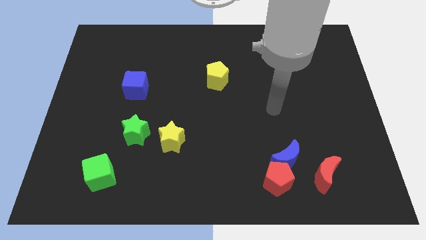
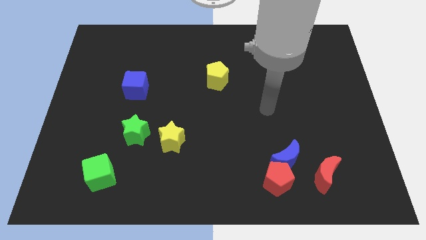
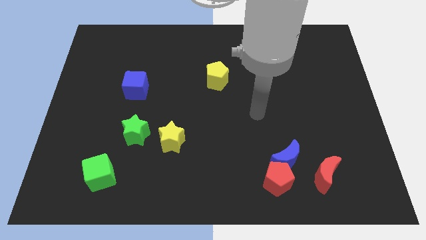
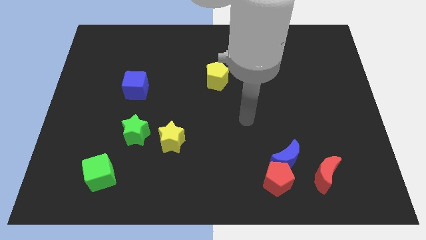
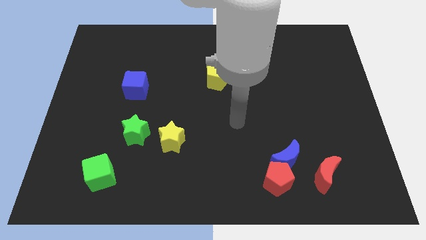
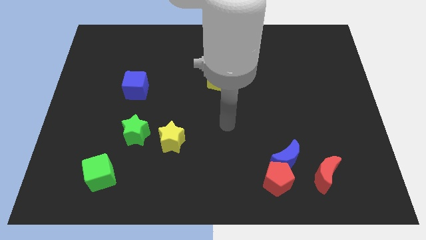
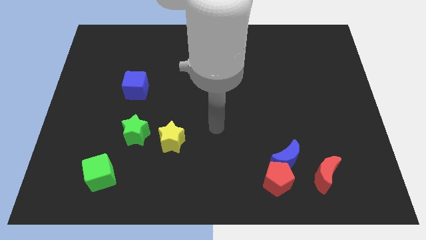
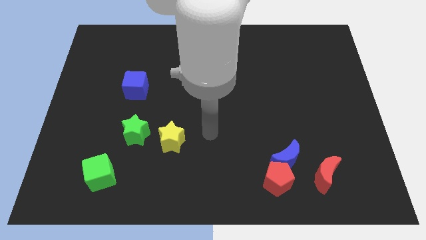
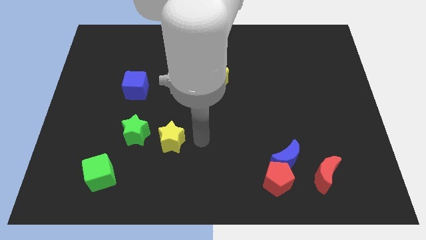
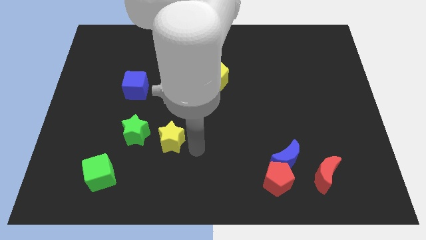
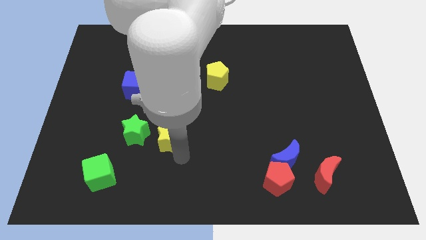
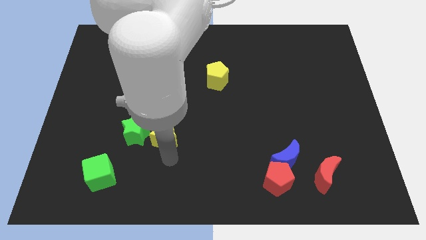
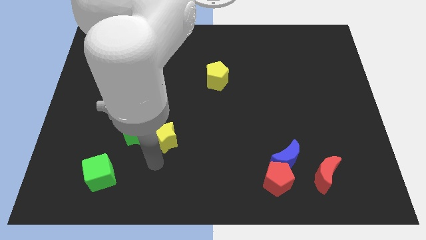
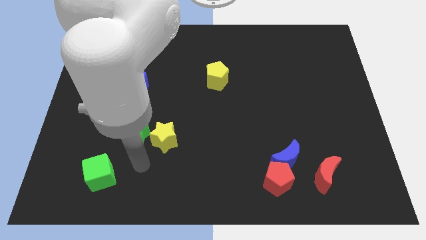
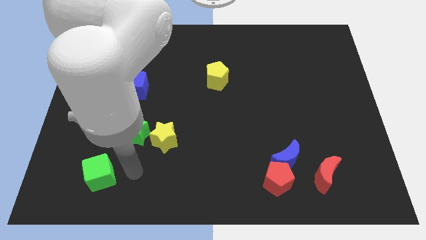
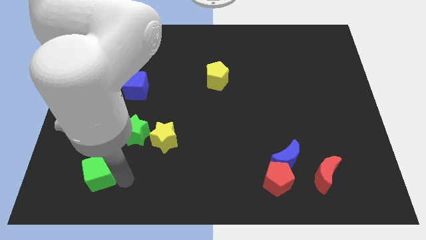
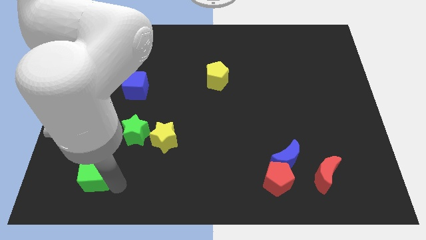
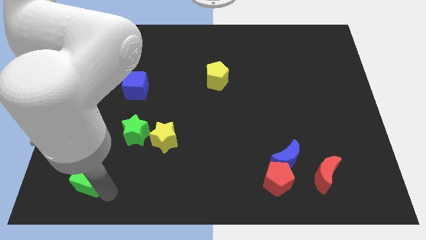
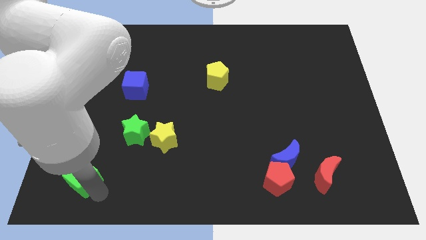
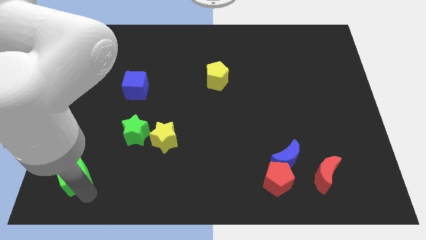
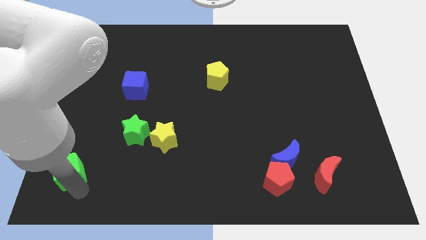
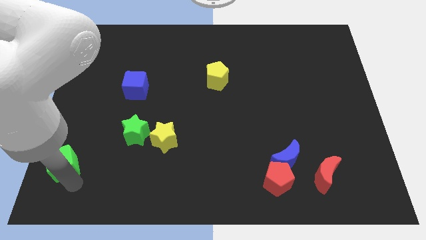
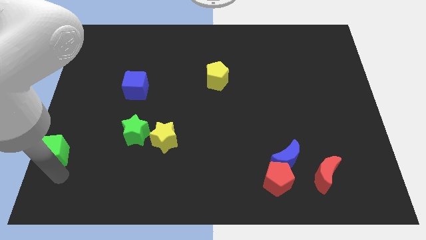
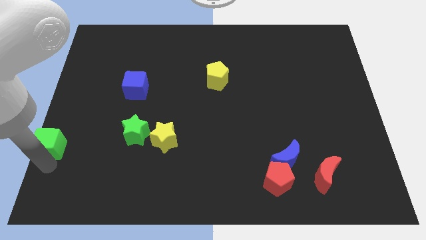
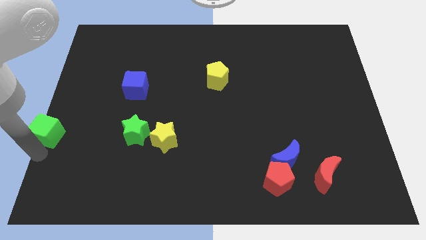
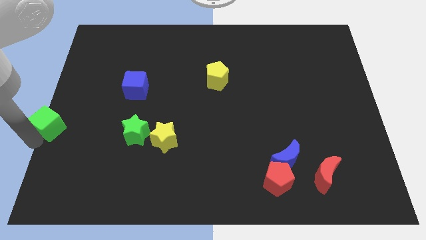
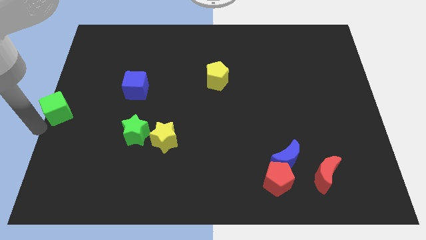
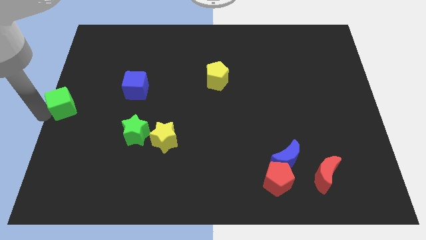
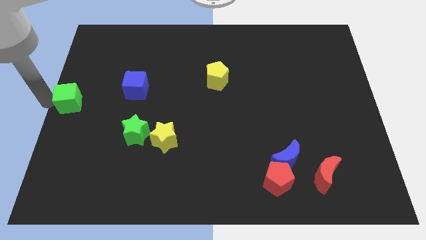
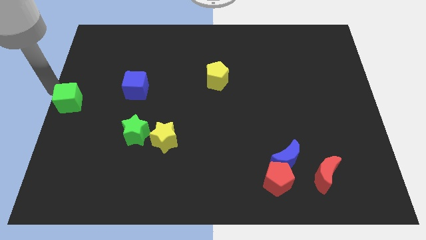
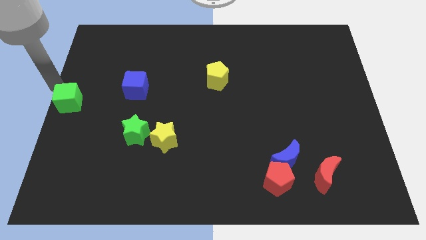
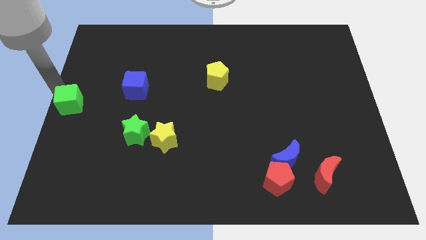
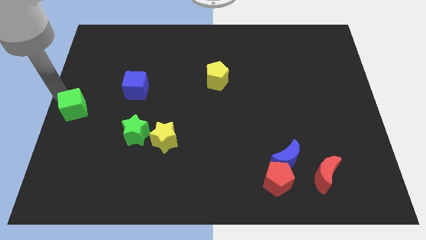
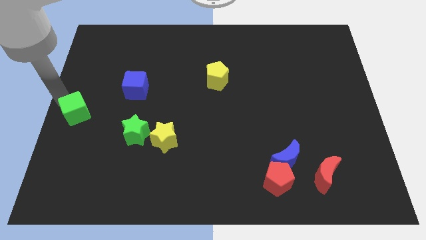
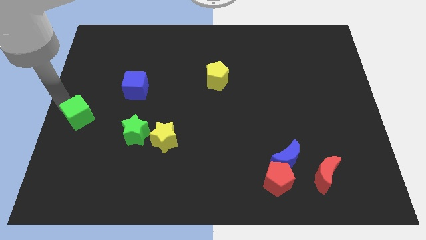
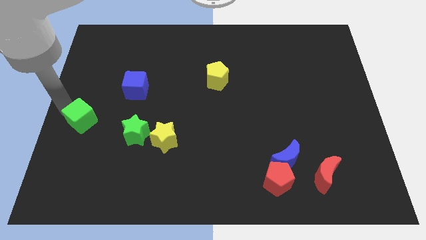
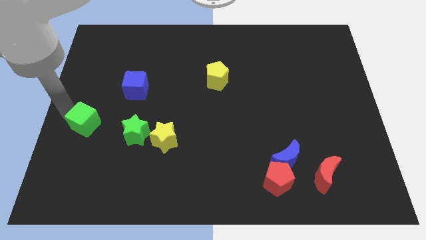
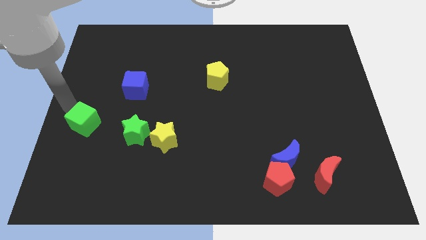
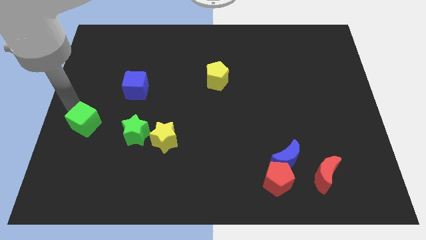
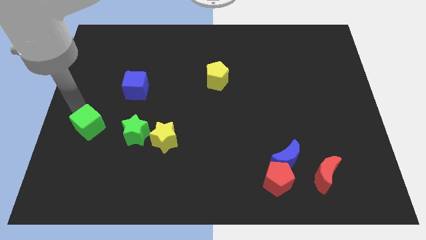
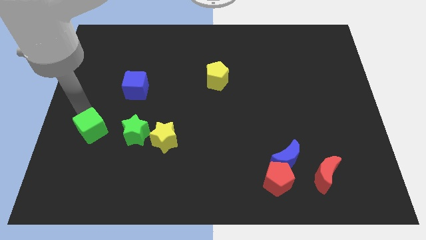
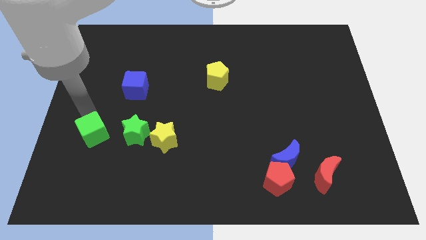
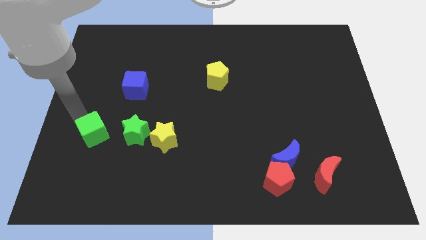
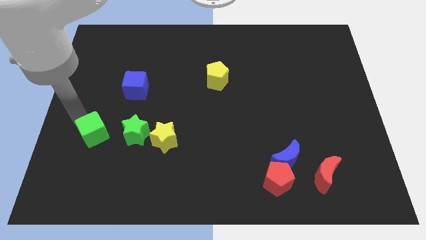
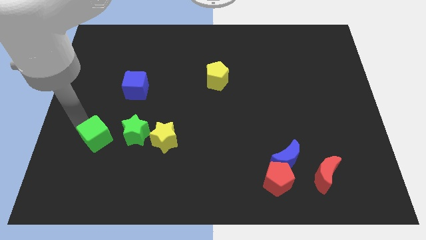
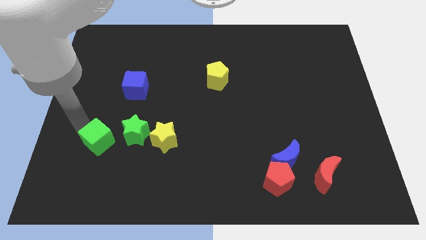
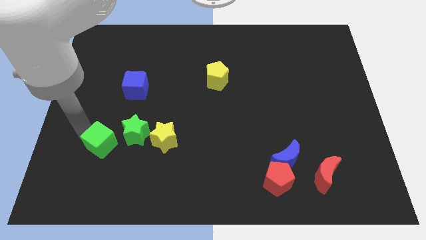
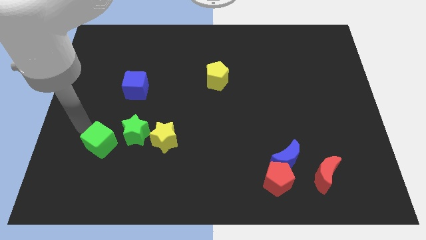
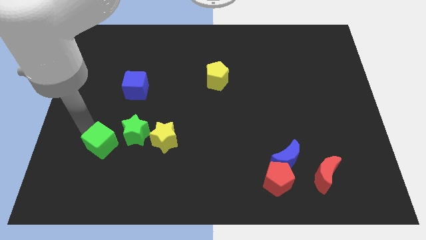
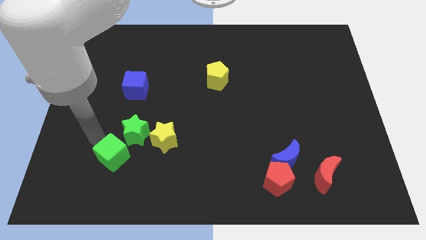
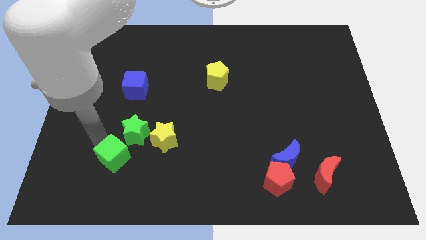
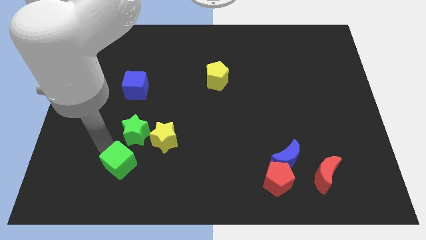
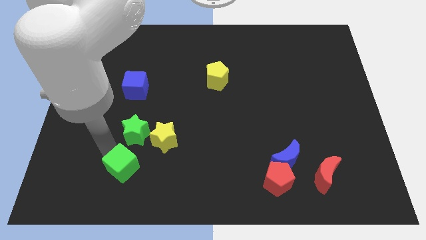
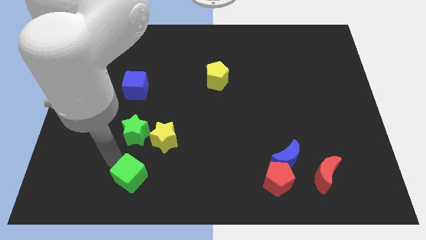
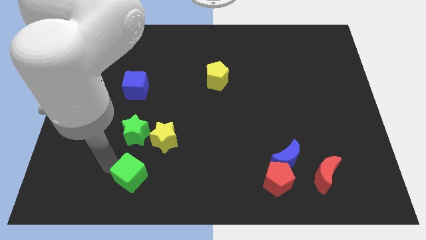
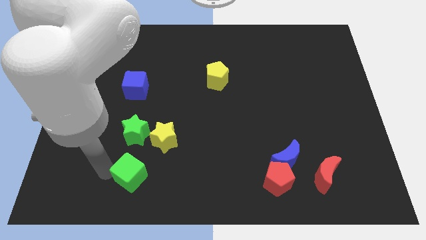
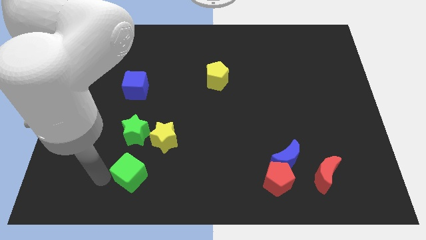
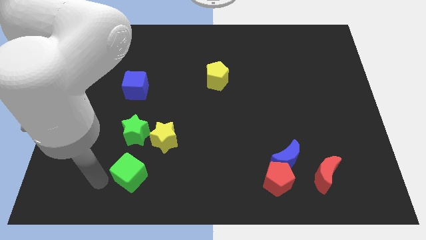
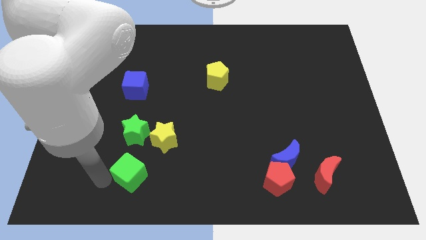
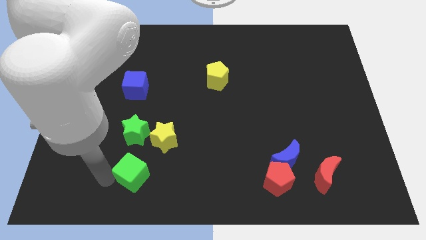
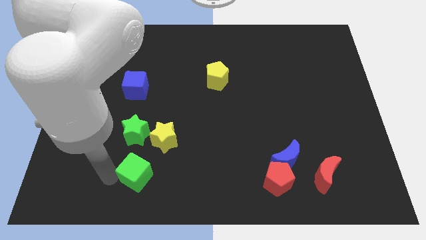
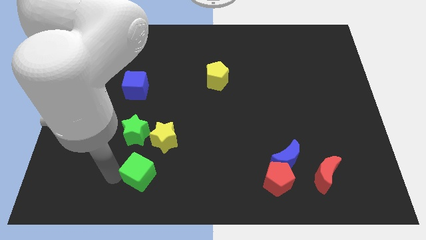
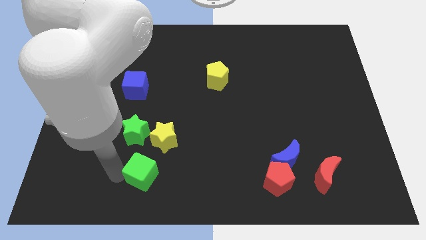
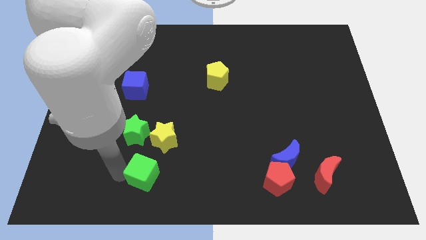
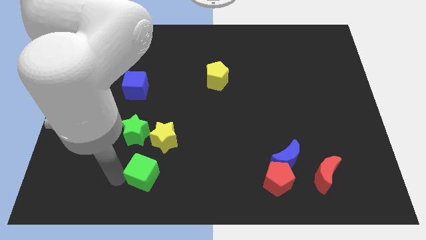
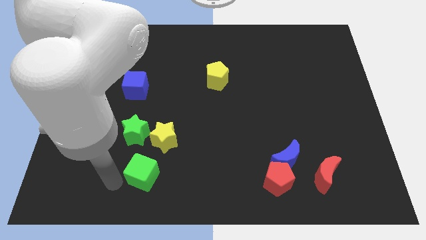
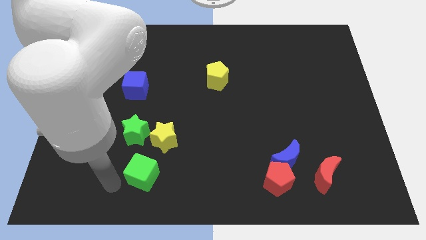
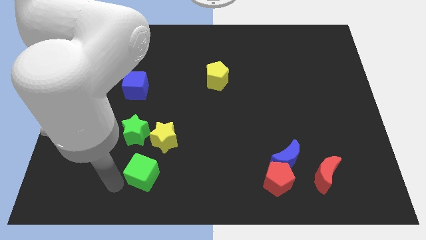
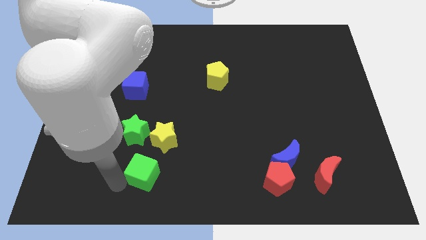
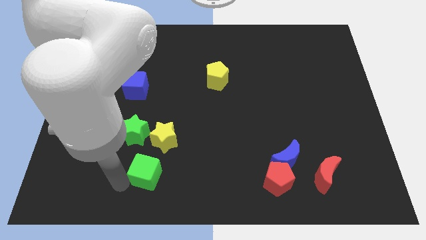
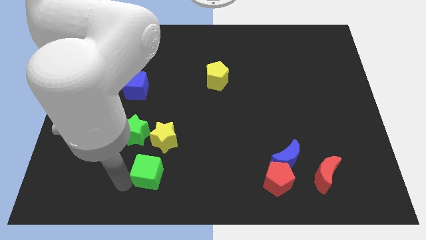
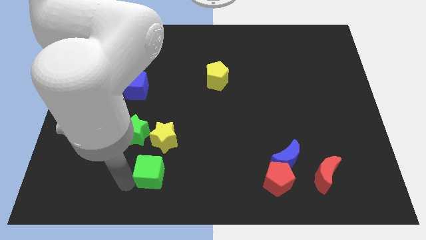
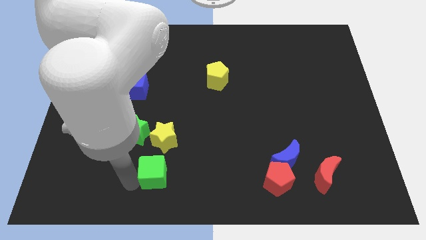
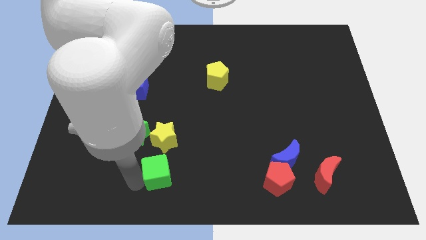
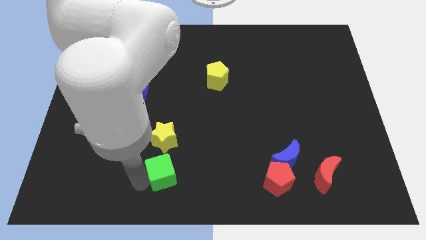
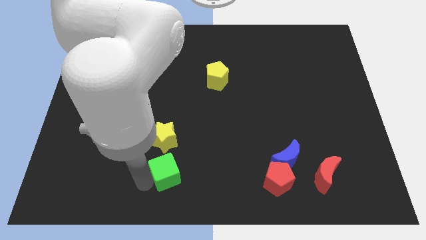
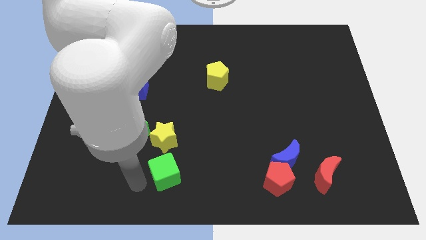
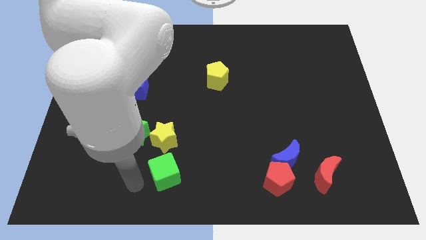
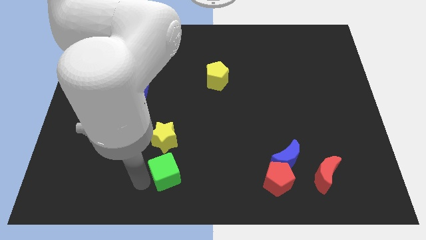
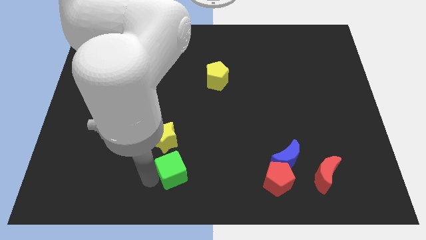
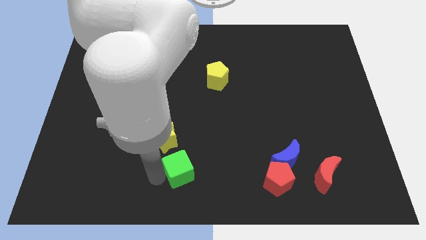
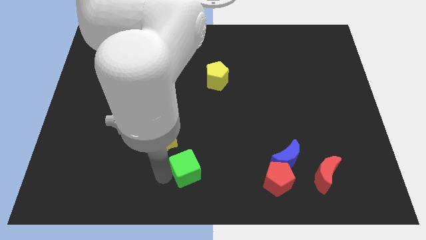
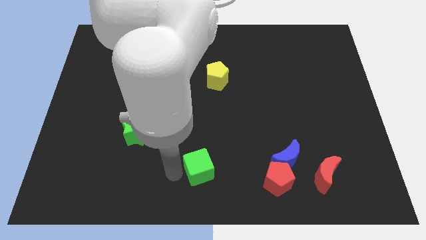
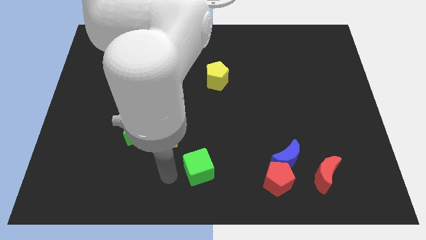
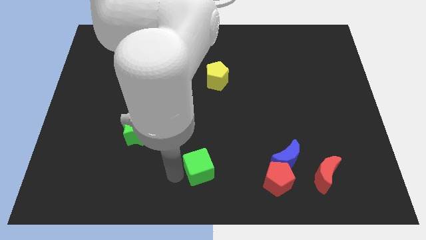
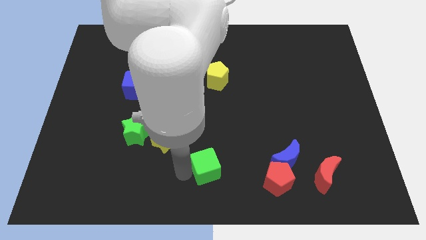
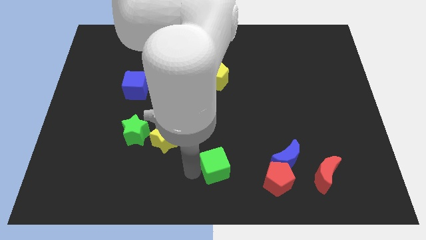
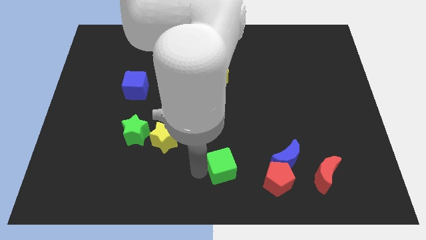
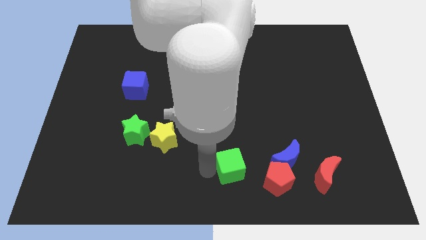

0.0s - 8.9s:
slide the green cube to the top left of the red pentagon
